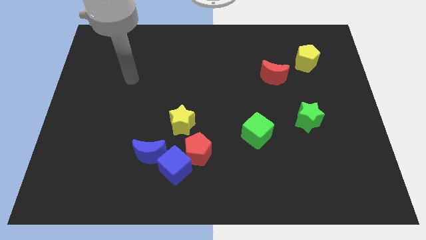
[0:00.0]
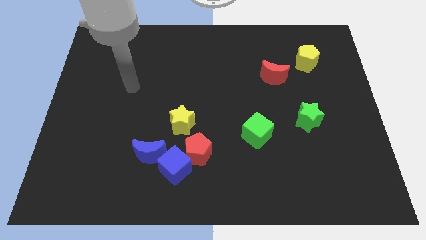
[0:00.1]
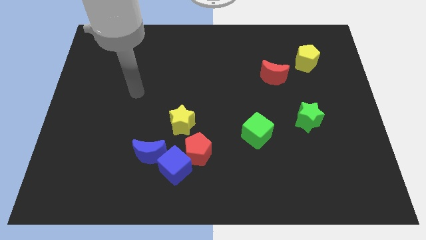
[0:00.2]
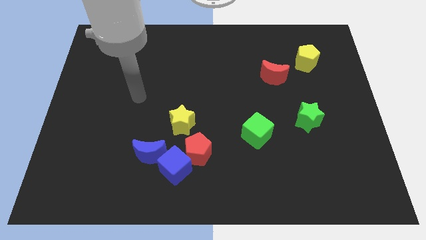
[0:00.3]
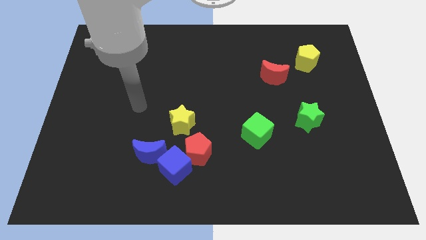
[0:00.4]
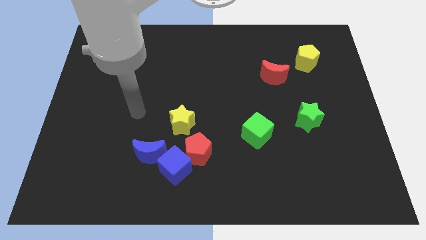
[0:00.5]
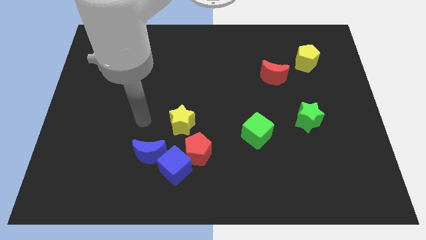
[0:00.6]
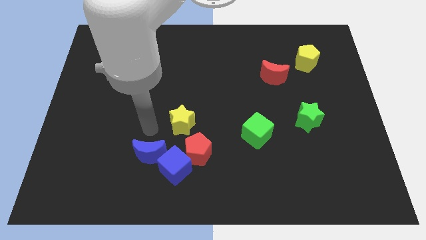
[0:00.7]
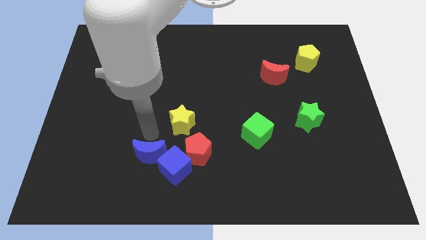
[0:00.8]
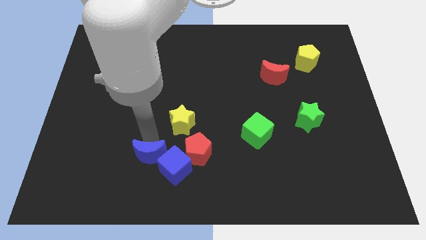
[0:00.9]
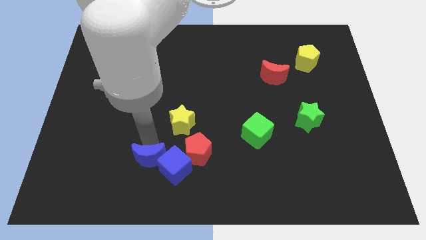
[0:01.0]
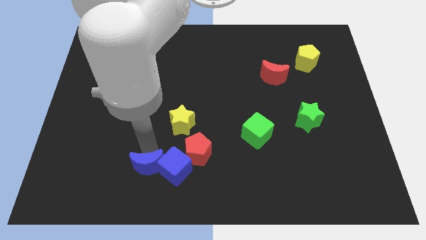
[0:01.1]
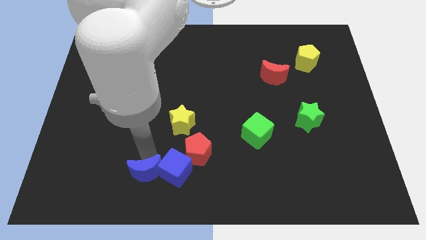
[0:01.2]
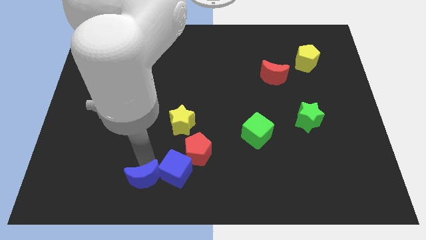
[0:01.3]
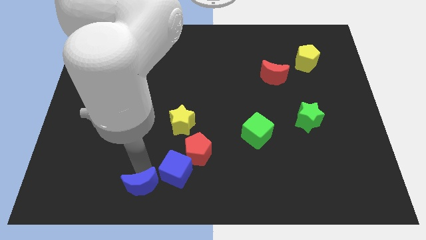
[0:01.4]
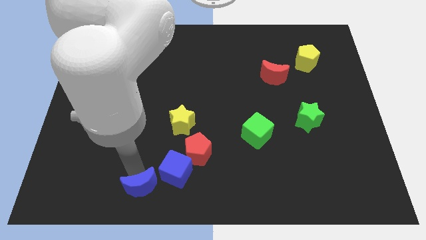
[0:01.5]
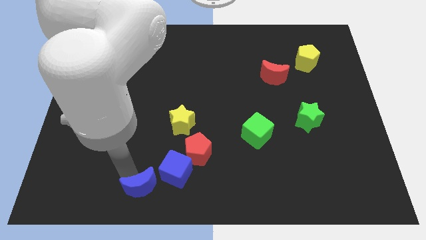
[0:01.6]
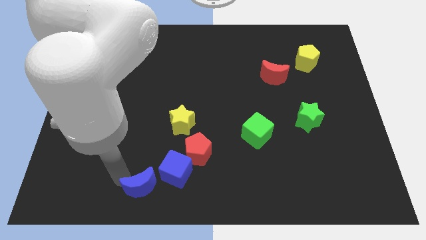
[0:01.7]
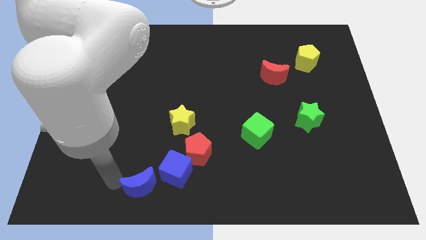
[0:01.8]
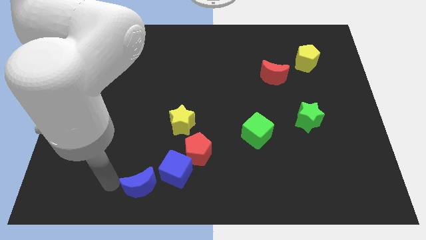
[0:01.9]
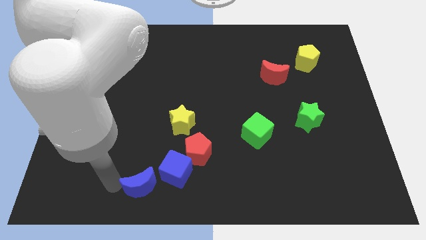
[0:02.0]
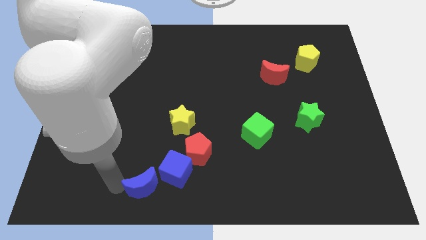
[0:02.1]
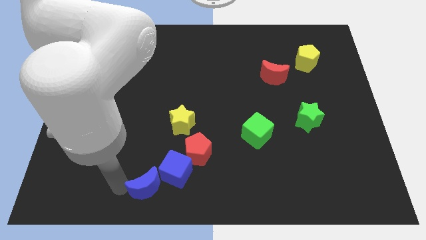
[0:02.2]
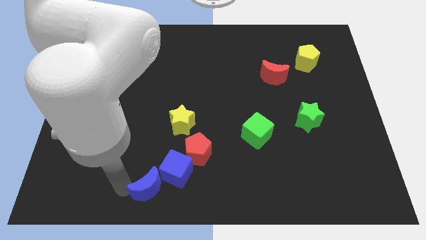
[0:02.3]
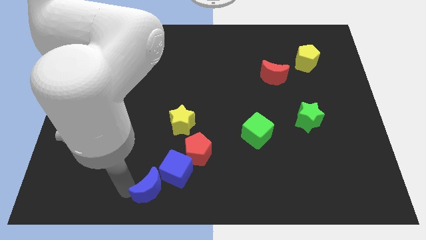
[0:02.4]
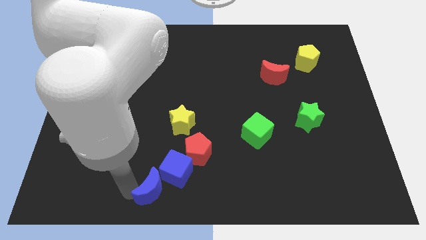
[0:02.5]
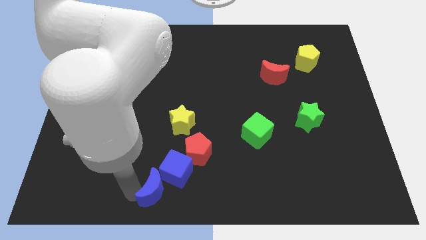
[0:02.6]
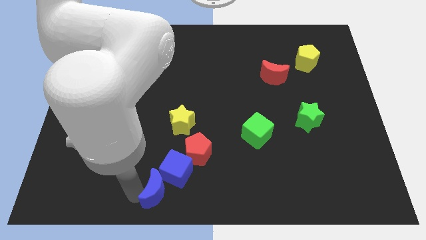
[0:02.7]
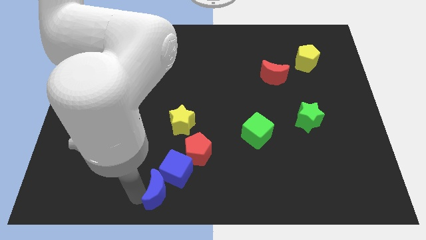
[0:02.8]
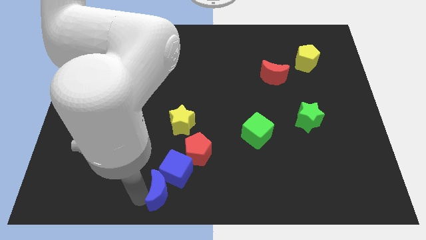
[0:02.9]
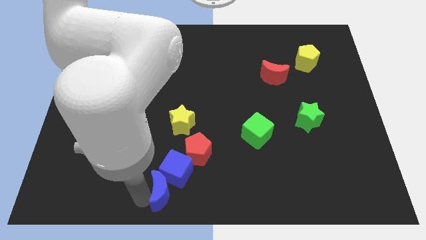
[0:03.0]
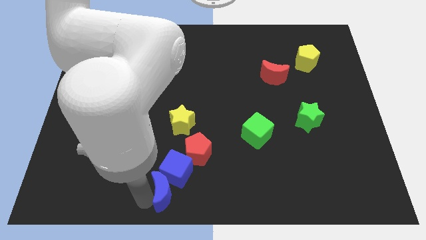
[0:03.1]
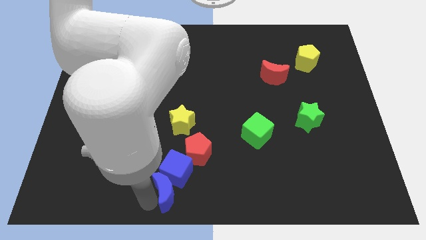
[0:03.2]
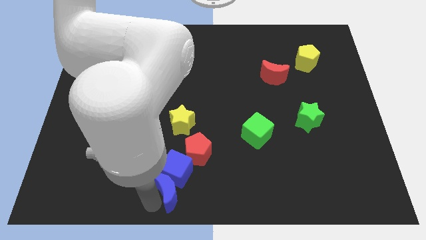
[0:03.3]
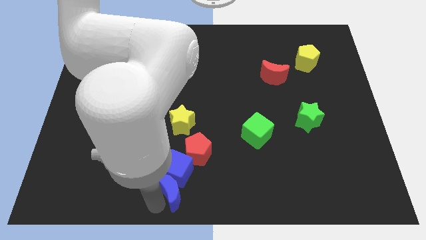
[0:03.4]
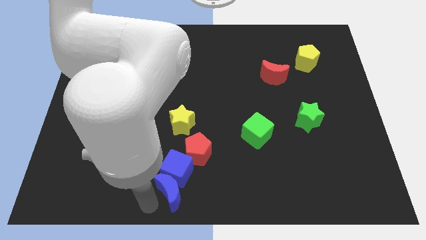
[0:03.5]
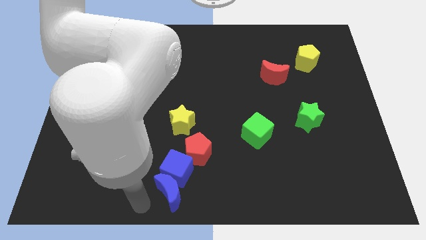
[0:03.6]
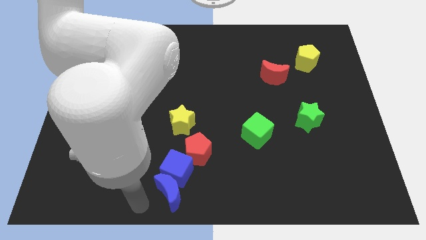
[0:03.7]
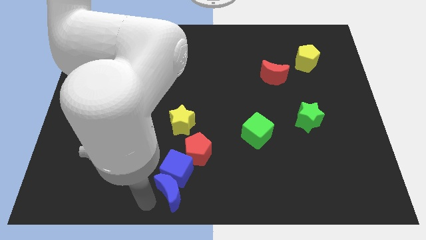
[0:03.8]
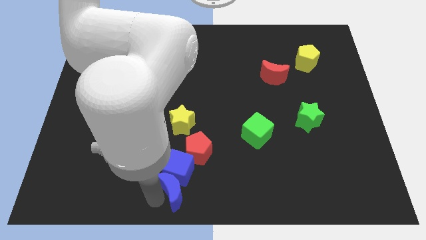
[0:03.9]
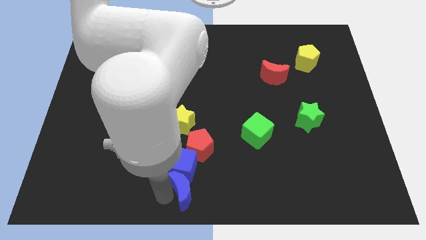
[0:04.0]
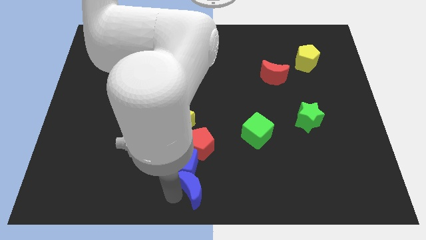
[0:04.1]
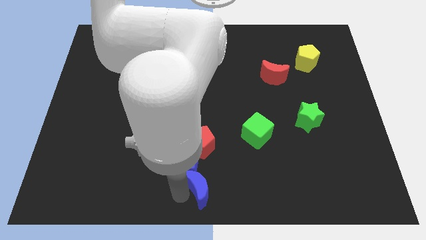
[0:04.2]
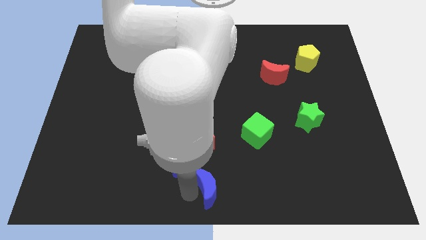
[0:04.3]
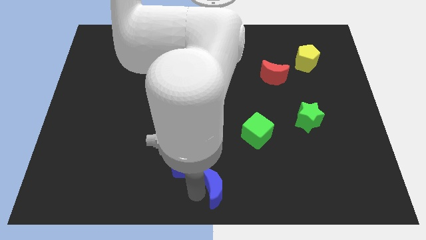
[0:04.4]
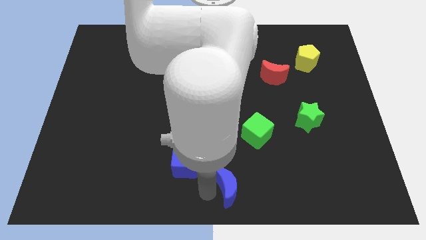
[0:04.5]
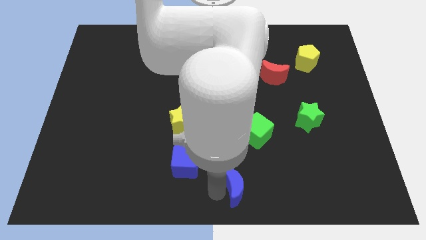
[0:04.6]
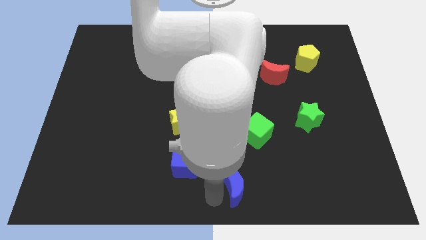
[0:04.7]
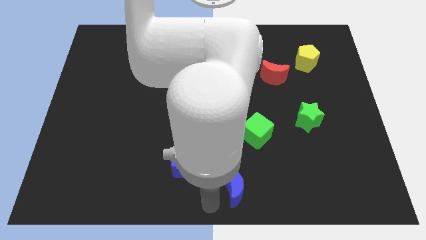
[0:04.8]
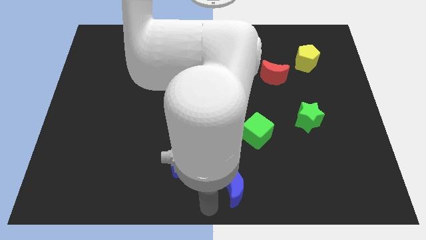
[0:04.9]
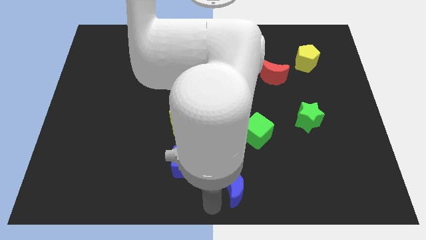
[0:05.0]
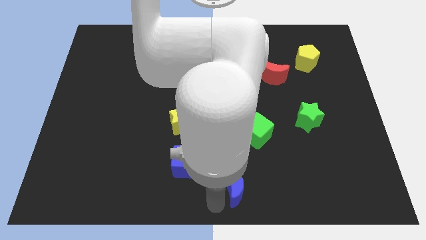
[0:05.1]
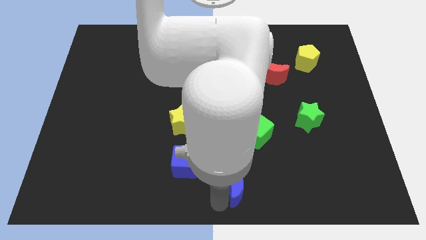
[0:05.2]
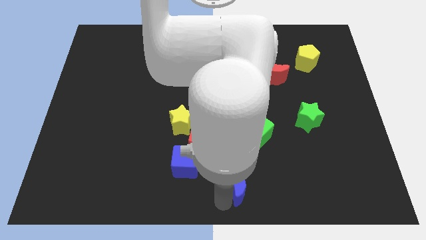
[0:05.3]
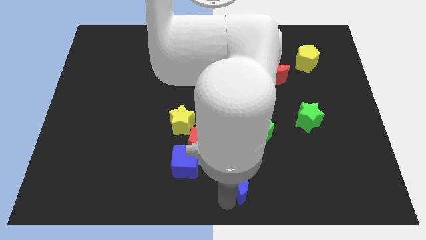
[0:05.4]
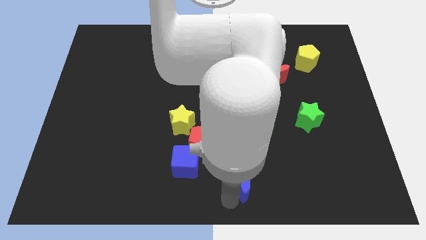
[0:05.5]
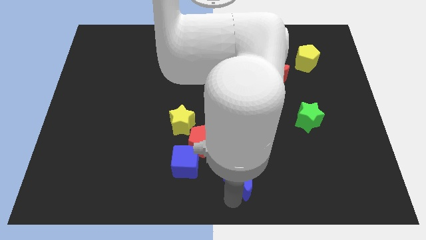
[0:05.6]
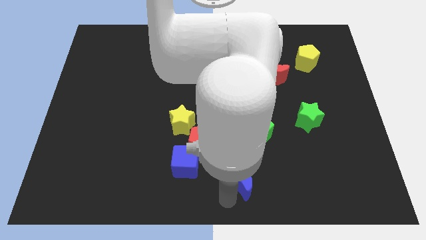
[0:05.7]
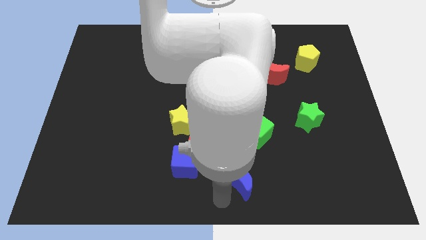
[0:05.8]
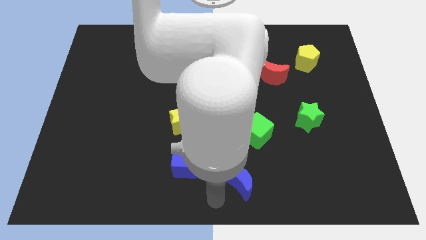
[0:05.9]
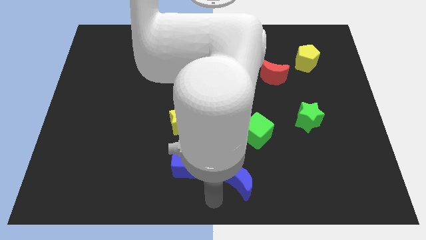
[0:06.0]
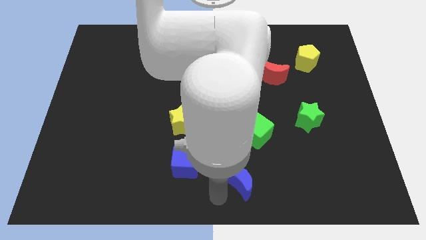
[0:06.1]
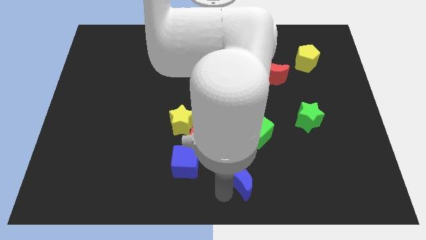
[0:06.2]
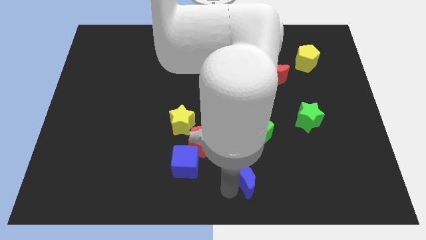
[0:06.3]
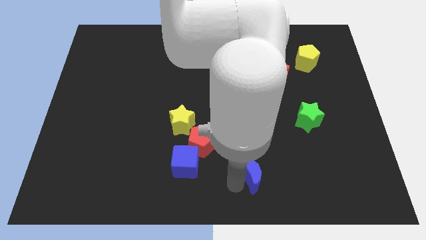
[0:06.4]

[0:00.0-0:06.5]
slide the blue moon right

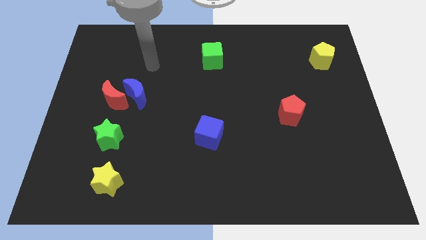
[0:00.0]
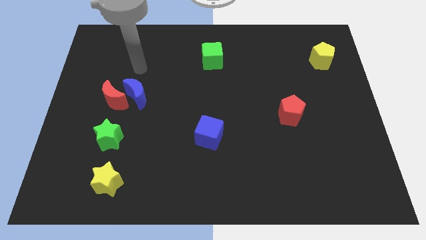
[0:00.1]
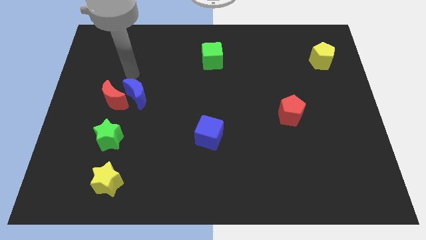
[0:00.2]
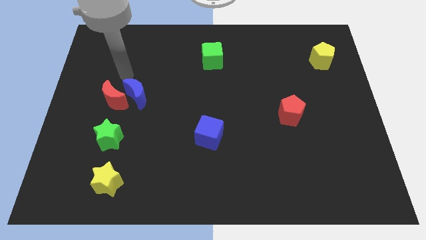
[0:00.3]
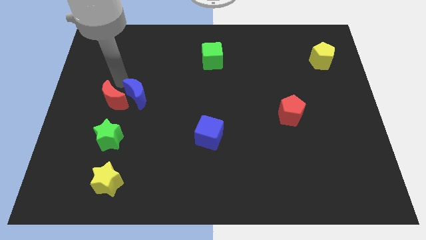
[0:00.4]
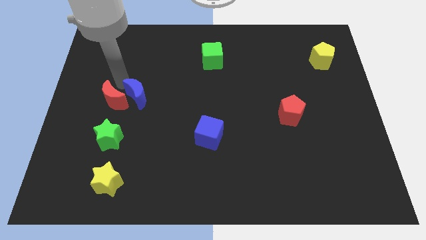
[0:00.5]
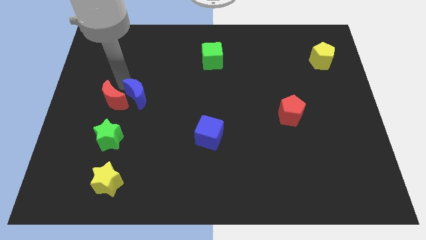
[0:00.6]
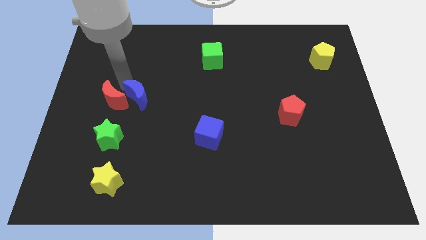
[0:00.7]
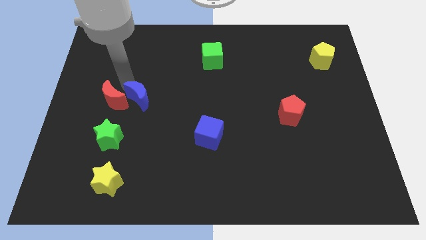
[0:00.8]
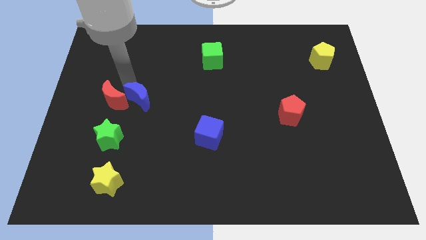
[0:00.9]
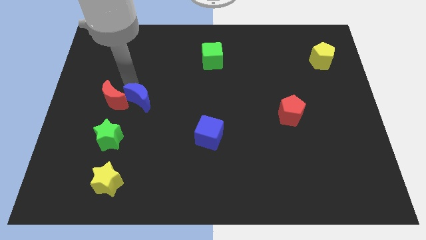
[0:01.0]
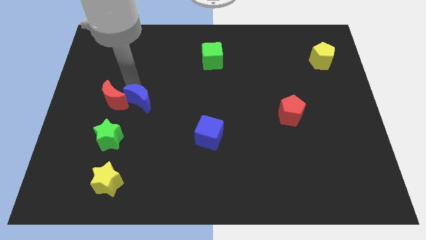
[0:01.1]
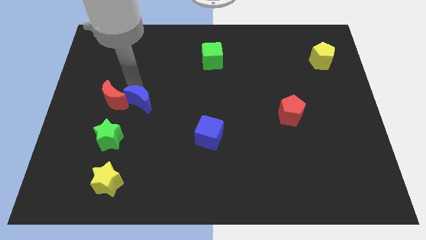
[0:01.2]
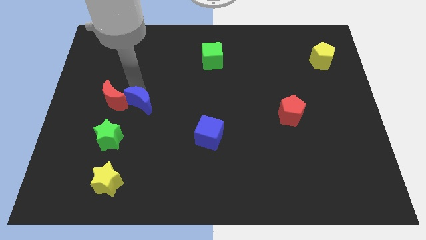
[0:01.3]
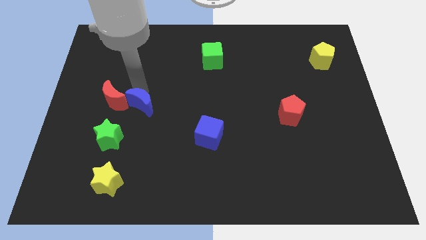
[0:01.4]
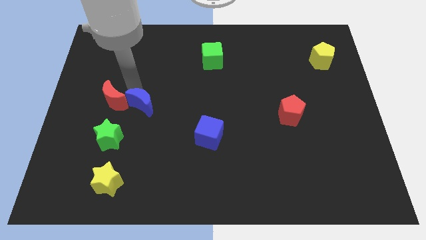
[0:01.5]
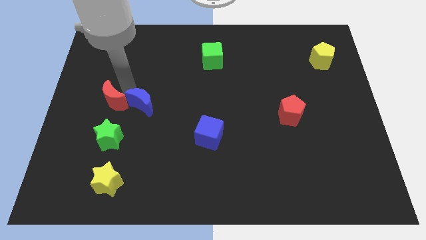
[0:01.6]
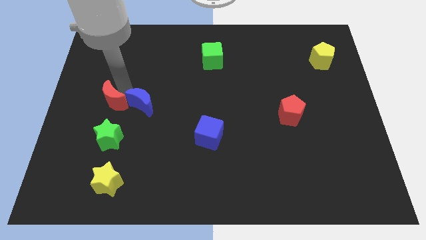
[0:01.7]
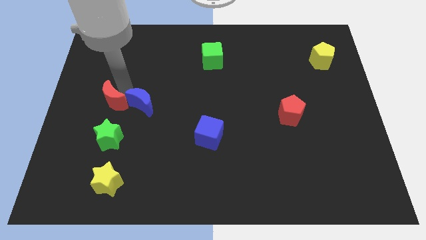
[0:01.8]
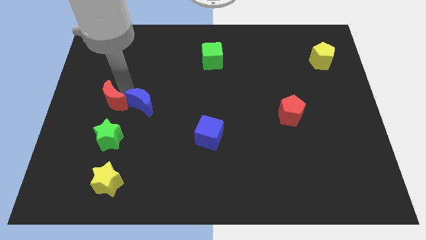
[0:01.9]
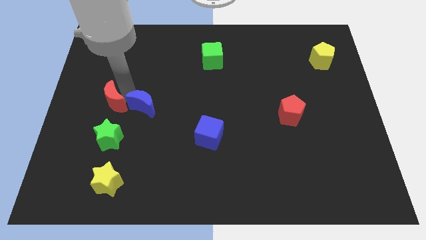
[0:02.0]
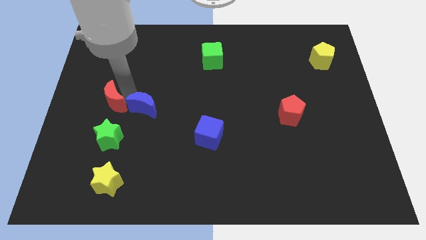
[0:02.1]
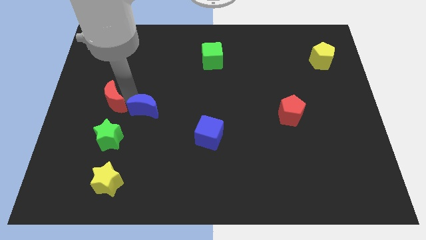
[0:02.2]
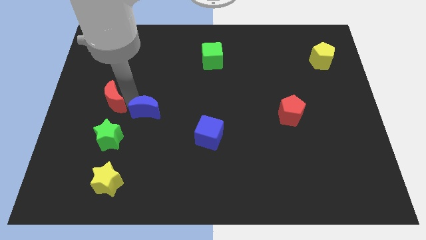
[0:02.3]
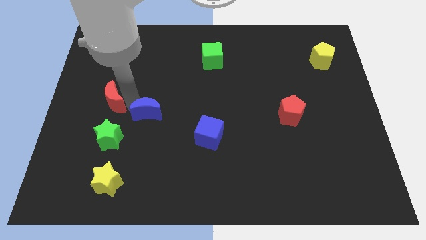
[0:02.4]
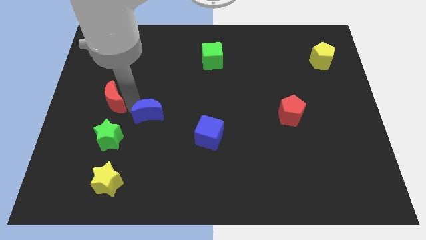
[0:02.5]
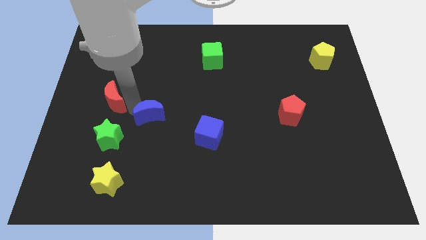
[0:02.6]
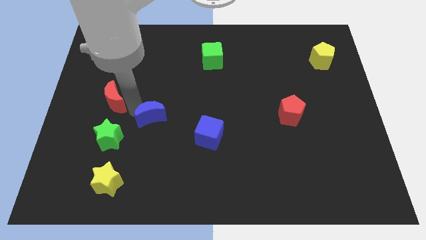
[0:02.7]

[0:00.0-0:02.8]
slide the blue moon slightly downwards and to the right
